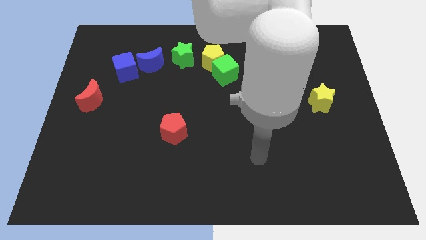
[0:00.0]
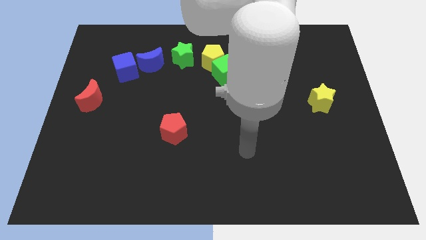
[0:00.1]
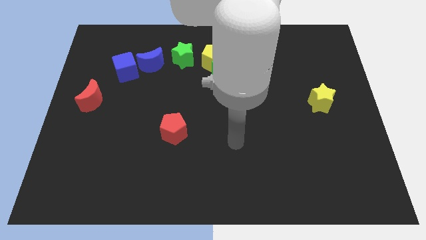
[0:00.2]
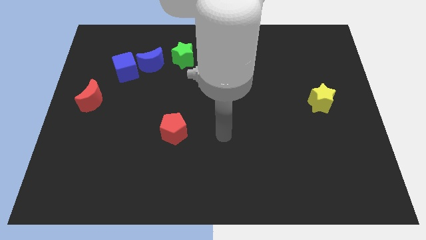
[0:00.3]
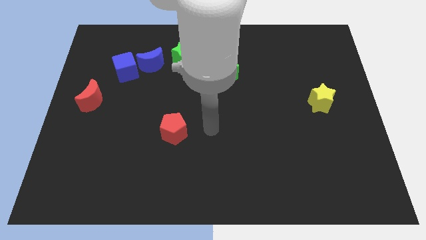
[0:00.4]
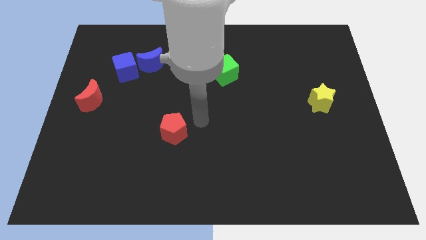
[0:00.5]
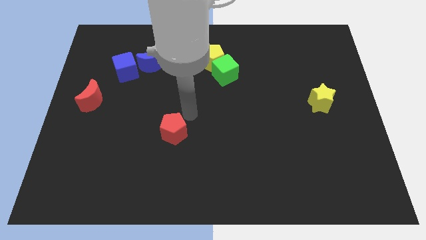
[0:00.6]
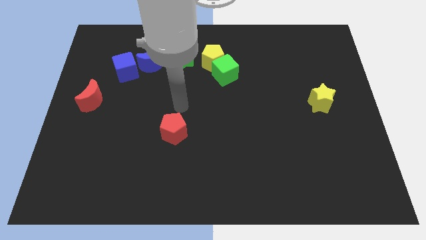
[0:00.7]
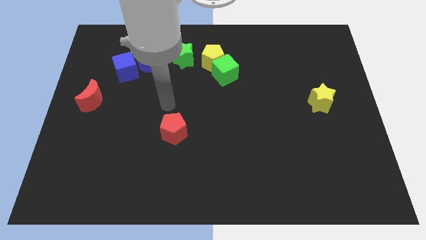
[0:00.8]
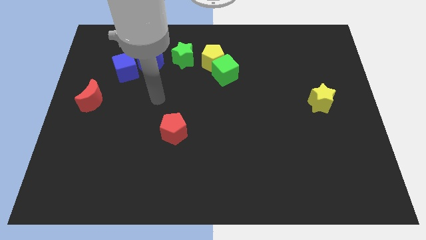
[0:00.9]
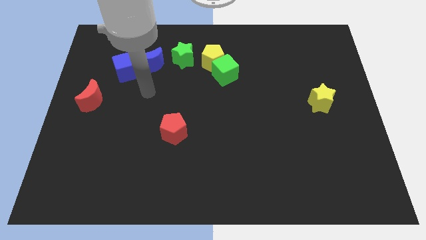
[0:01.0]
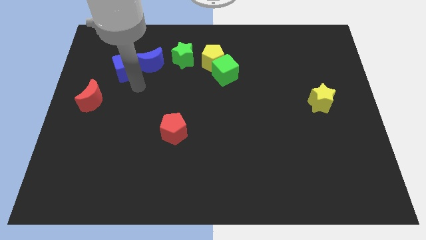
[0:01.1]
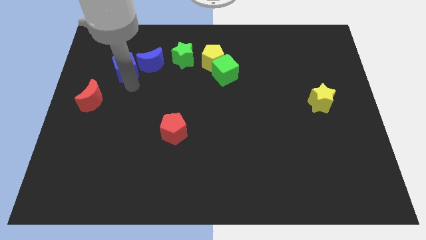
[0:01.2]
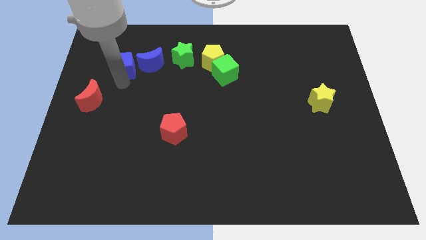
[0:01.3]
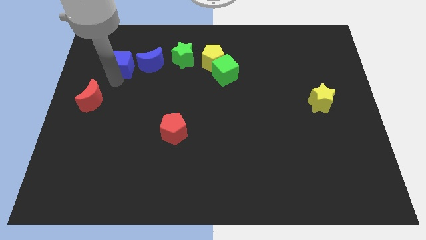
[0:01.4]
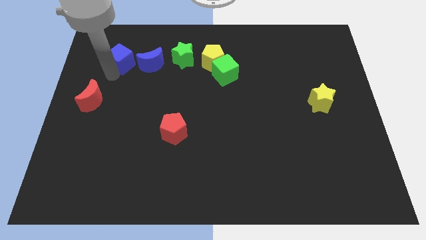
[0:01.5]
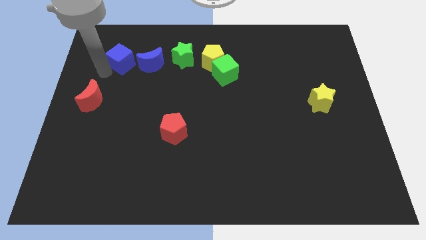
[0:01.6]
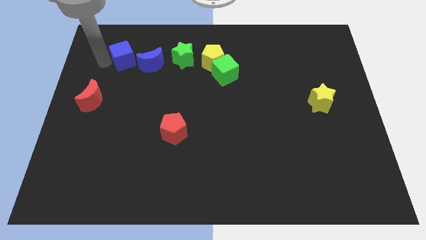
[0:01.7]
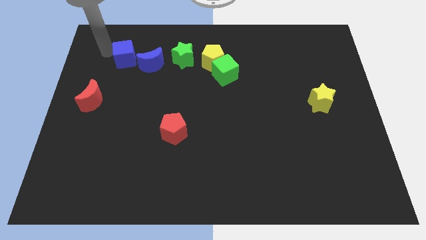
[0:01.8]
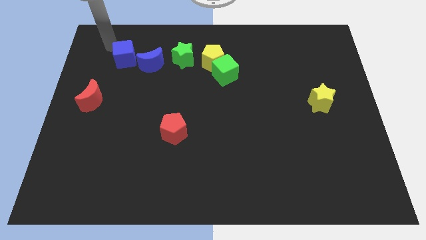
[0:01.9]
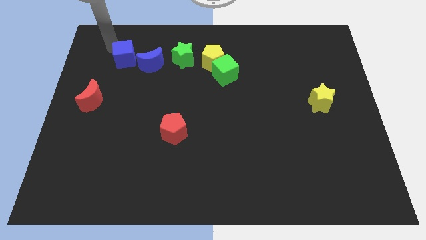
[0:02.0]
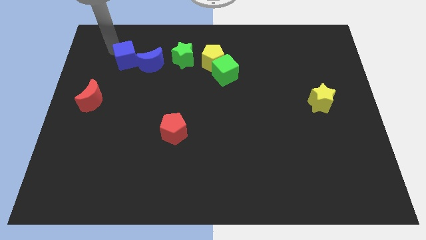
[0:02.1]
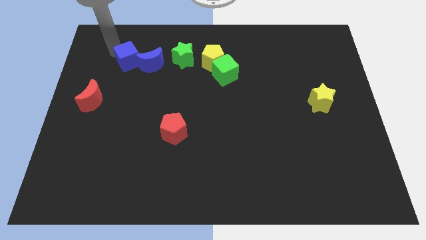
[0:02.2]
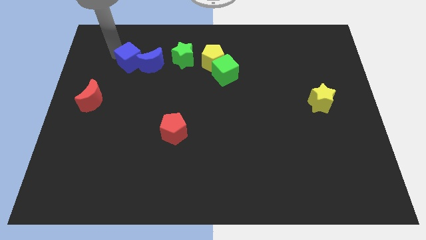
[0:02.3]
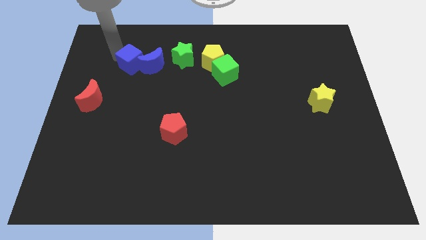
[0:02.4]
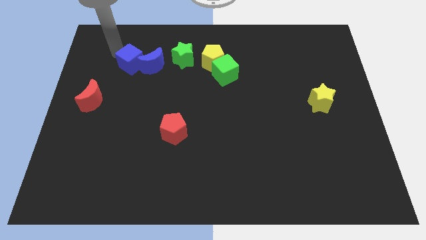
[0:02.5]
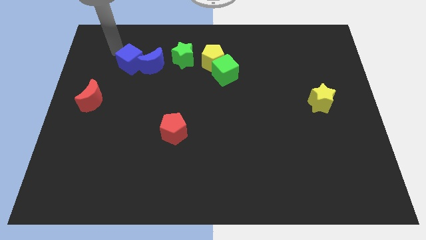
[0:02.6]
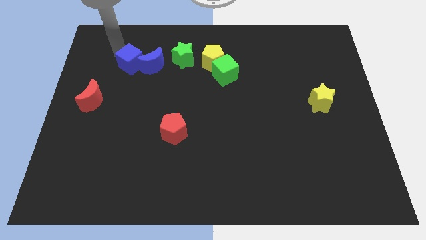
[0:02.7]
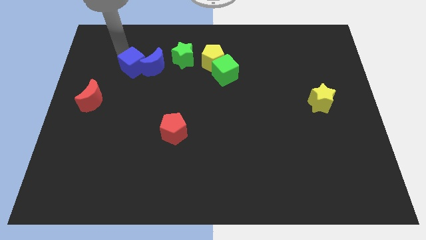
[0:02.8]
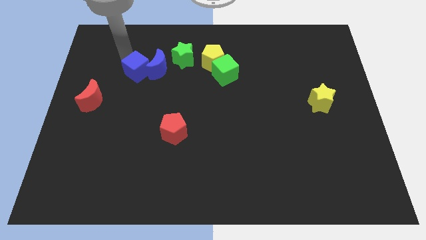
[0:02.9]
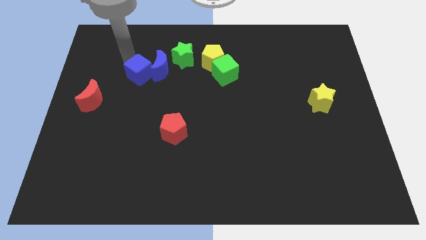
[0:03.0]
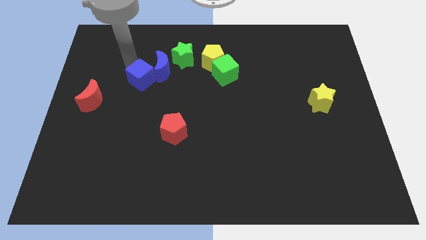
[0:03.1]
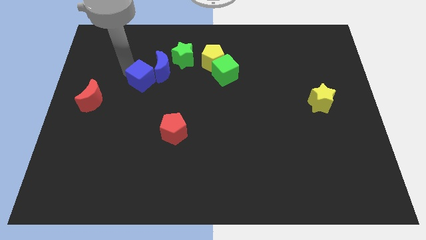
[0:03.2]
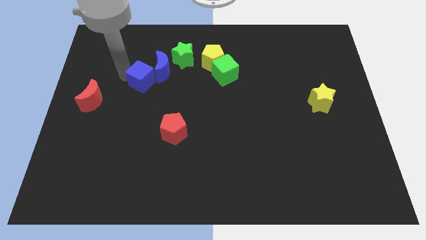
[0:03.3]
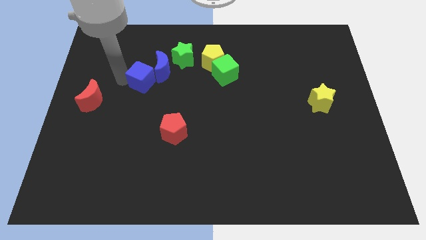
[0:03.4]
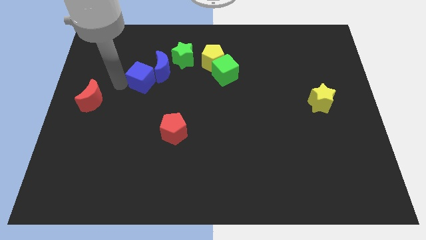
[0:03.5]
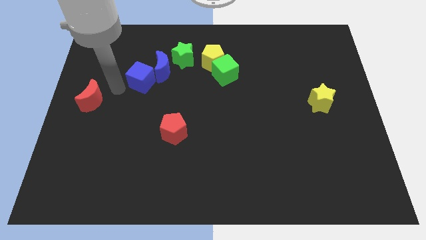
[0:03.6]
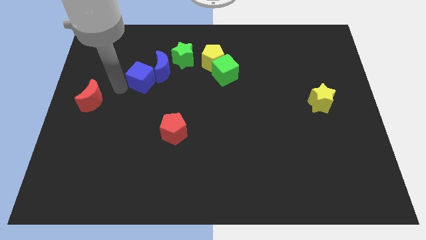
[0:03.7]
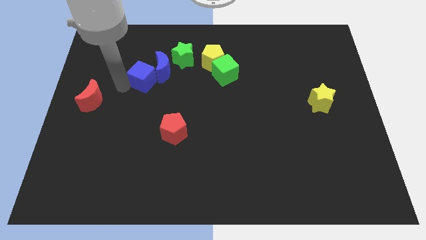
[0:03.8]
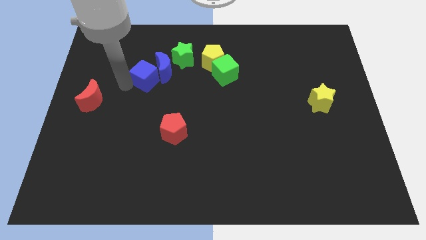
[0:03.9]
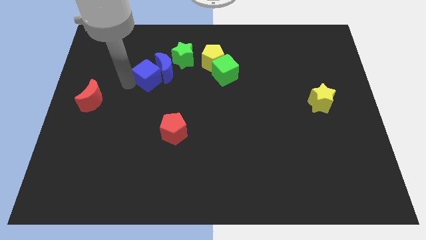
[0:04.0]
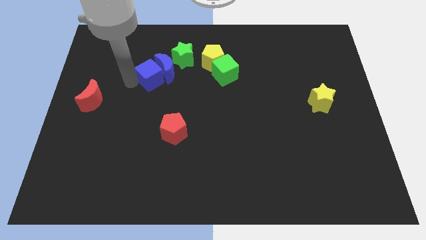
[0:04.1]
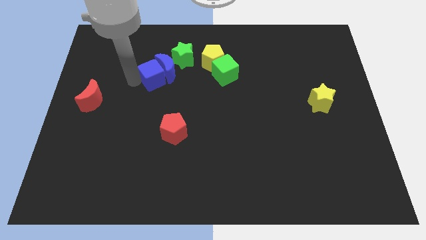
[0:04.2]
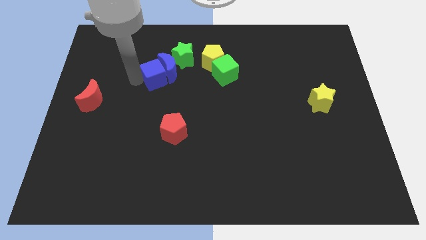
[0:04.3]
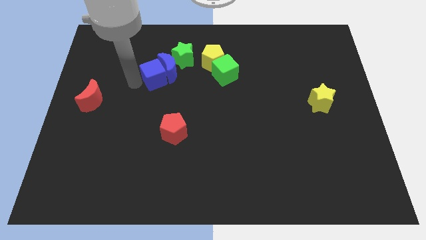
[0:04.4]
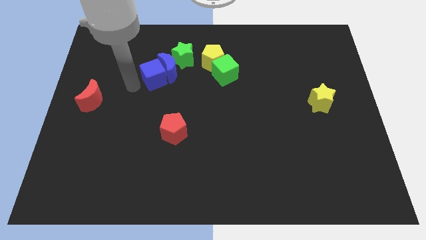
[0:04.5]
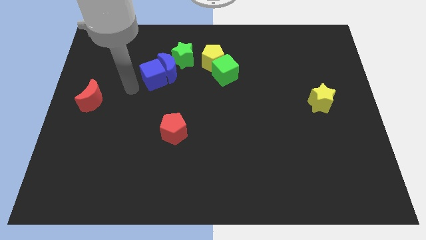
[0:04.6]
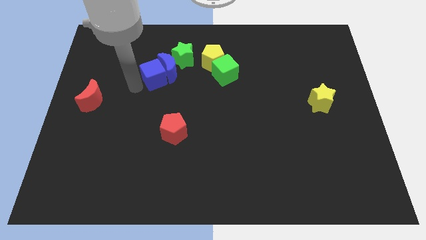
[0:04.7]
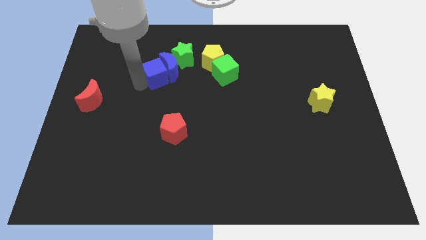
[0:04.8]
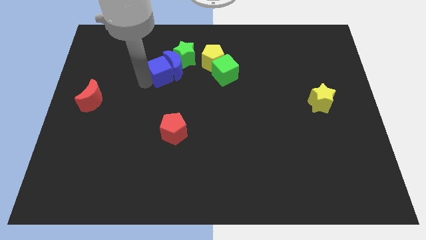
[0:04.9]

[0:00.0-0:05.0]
put the blue cube left of the green cube

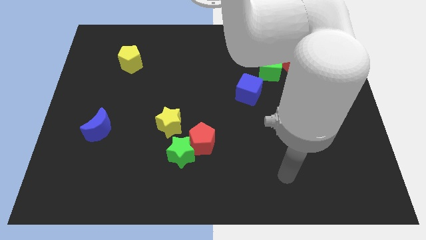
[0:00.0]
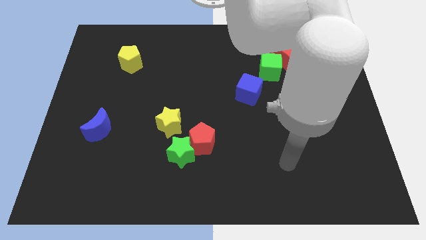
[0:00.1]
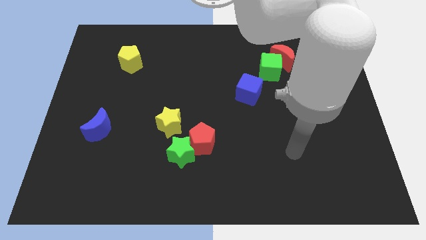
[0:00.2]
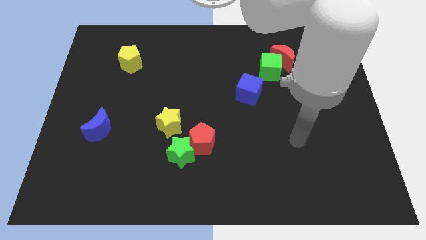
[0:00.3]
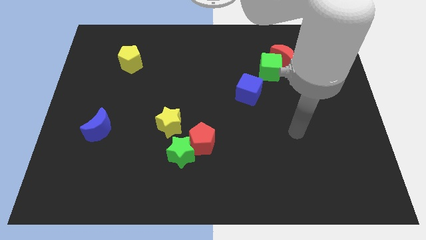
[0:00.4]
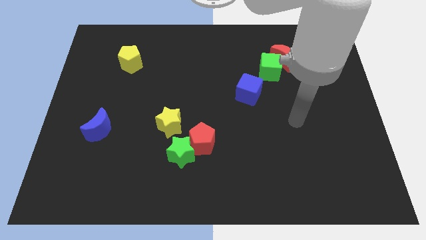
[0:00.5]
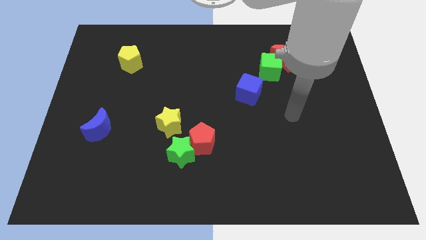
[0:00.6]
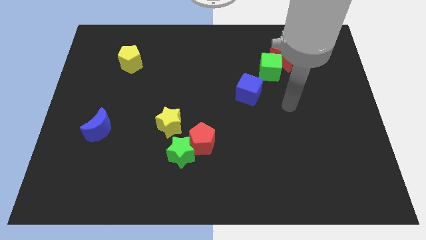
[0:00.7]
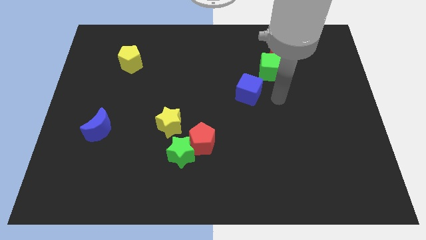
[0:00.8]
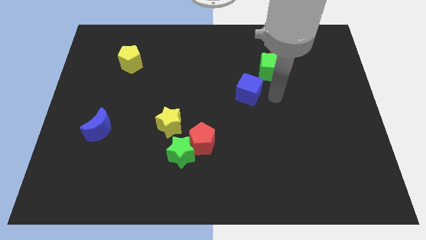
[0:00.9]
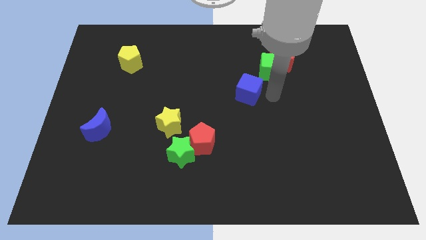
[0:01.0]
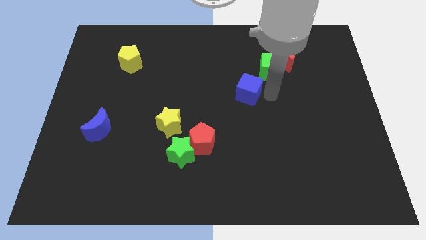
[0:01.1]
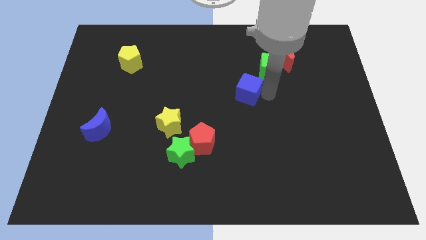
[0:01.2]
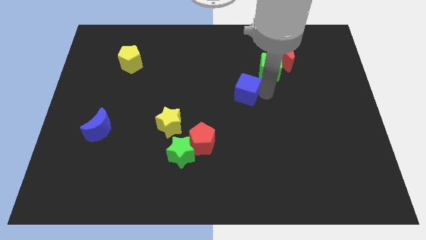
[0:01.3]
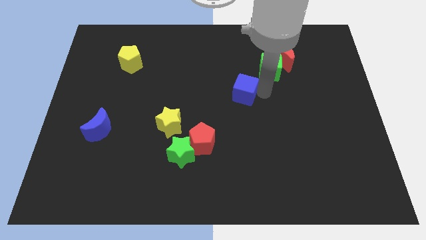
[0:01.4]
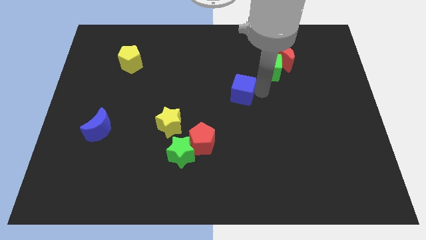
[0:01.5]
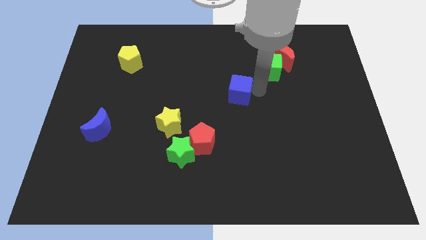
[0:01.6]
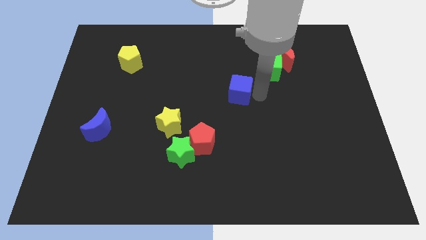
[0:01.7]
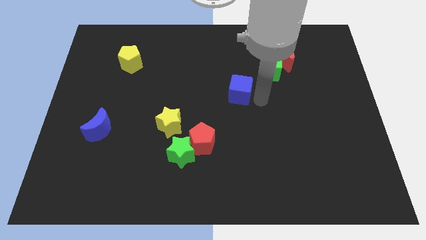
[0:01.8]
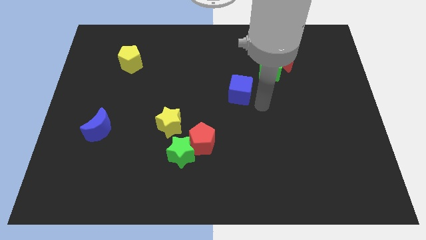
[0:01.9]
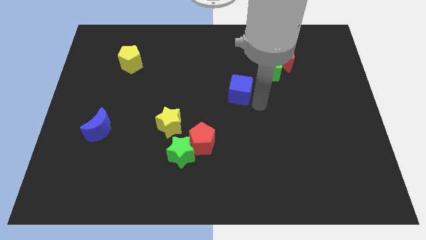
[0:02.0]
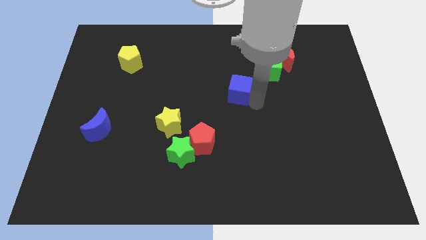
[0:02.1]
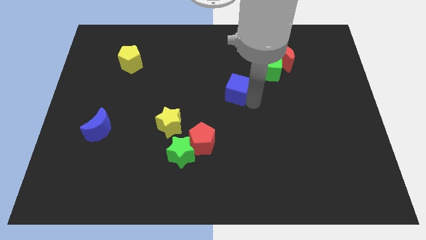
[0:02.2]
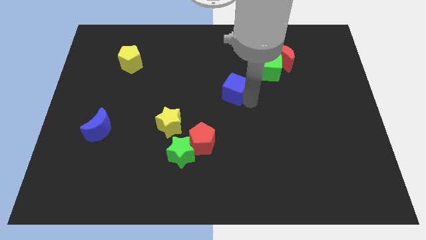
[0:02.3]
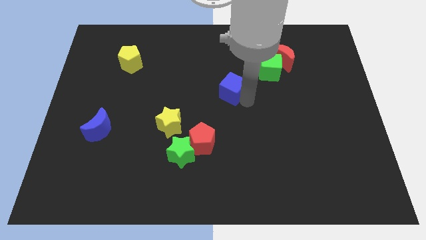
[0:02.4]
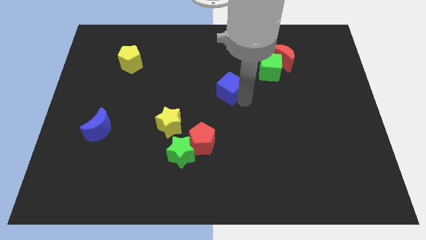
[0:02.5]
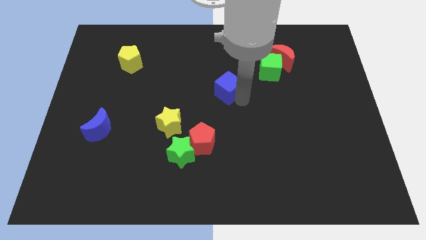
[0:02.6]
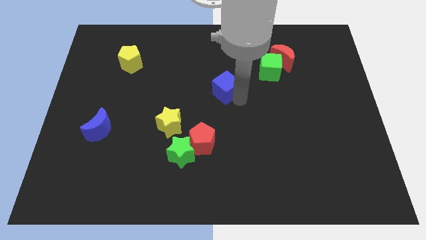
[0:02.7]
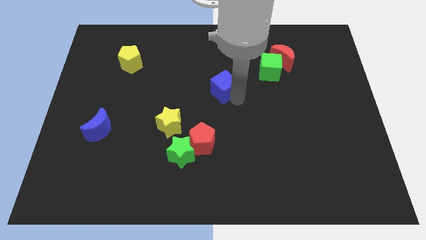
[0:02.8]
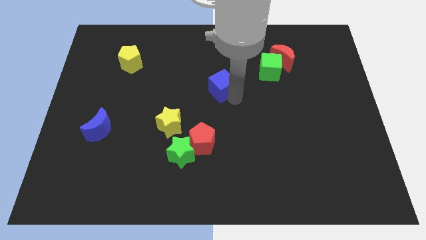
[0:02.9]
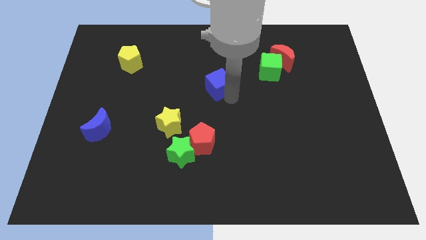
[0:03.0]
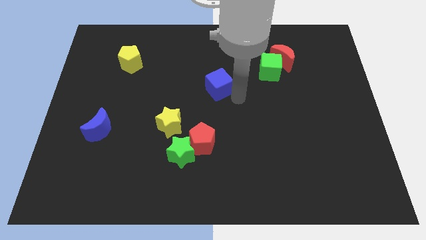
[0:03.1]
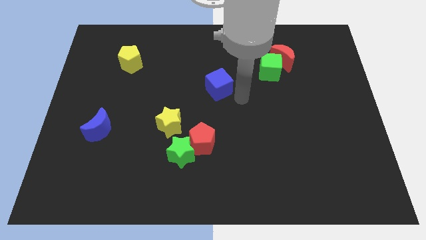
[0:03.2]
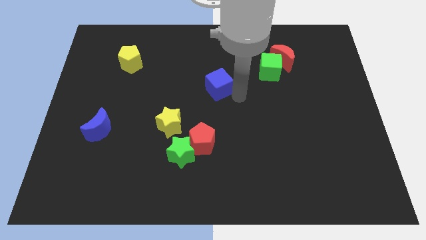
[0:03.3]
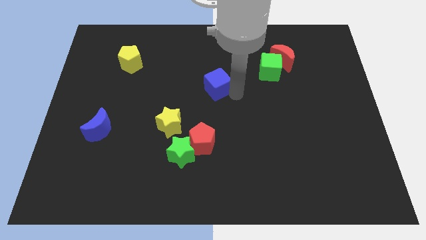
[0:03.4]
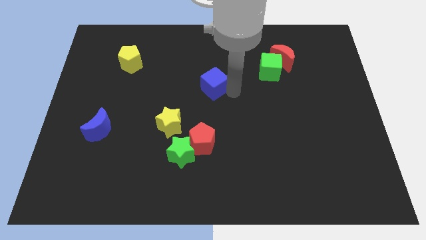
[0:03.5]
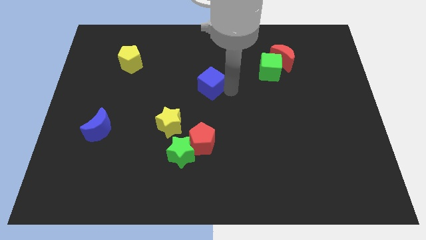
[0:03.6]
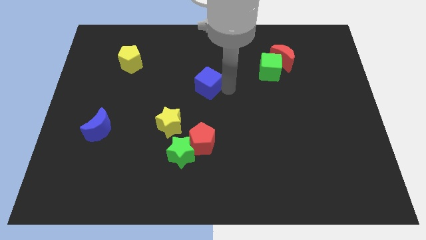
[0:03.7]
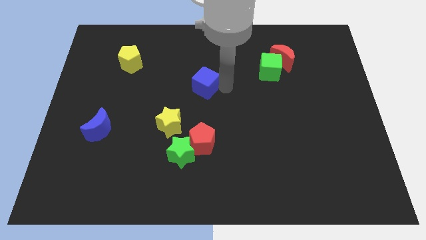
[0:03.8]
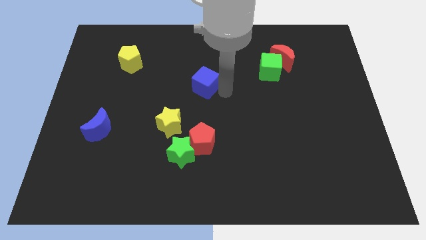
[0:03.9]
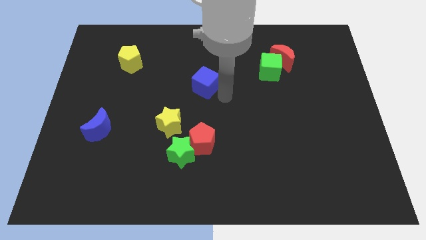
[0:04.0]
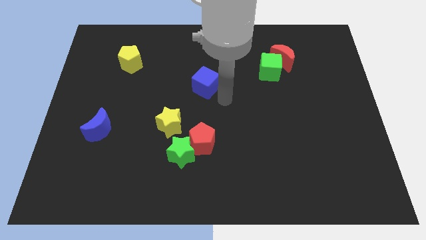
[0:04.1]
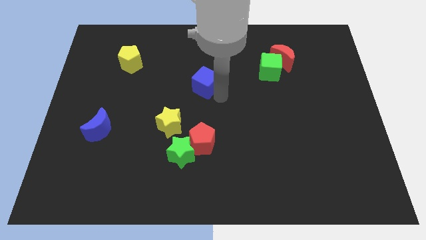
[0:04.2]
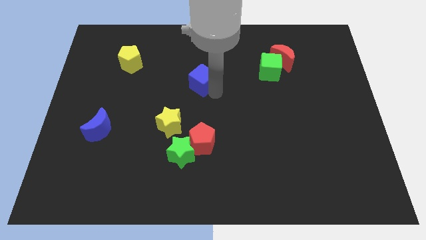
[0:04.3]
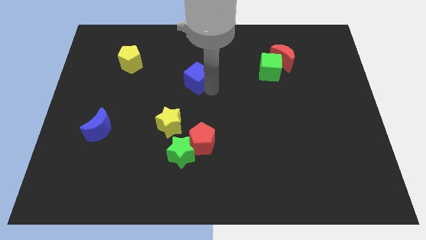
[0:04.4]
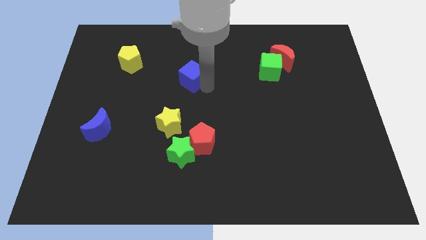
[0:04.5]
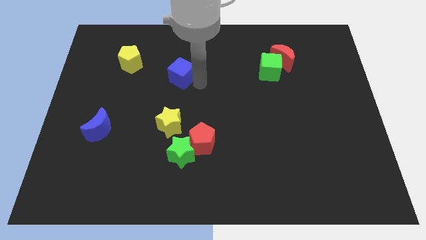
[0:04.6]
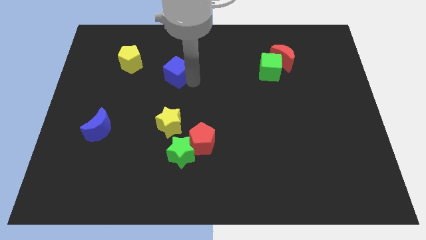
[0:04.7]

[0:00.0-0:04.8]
move the blue cube just right of the yellow pentagon
